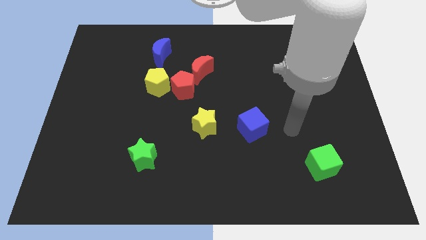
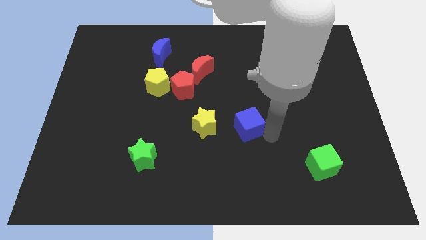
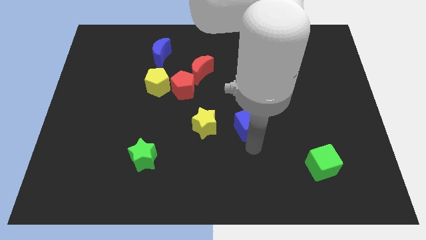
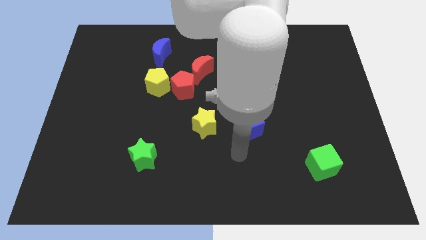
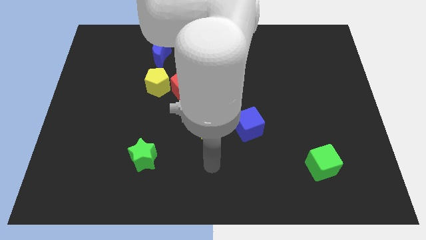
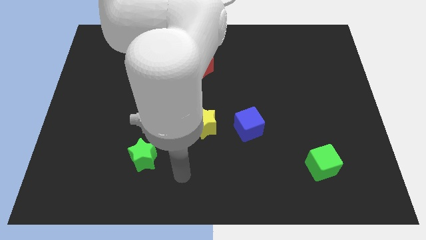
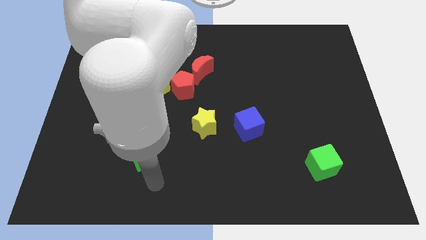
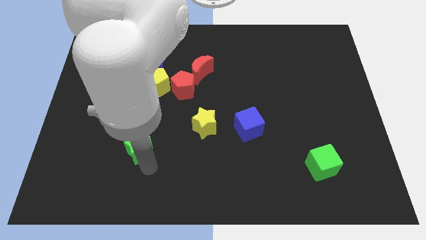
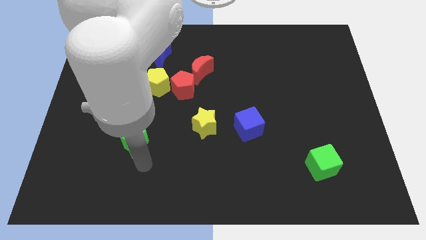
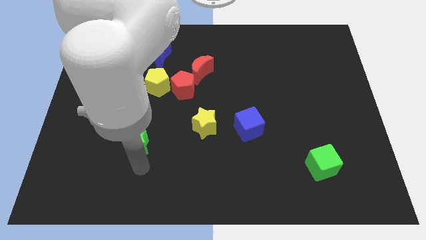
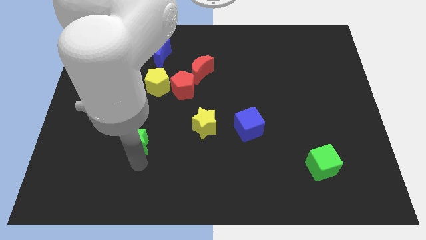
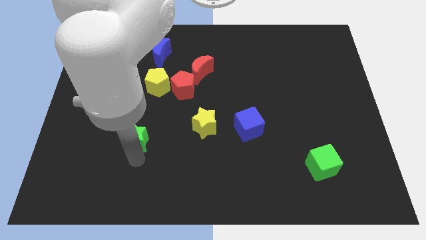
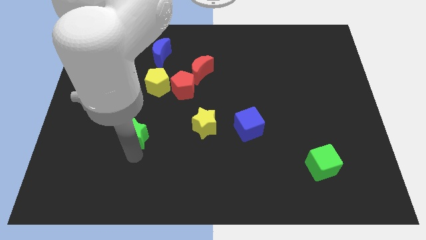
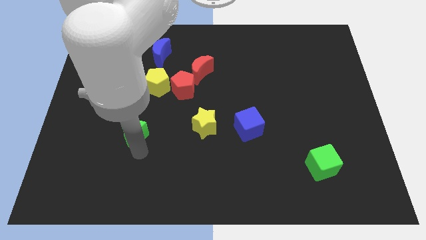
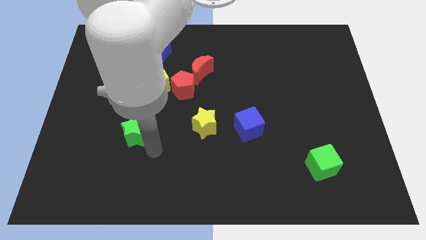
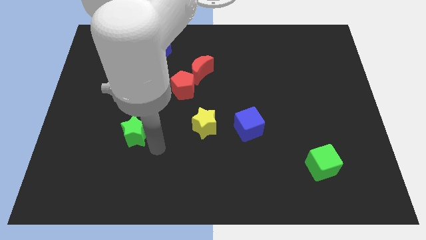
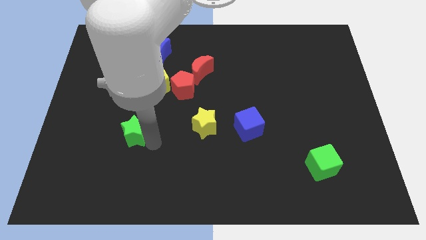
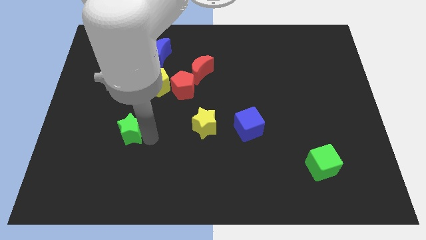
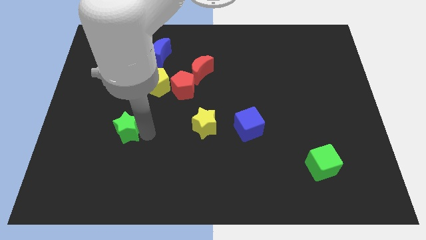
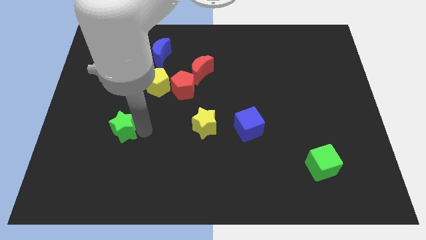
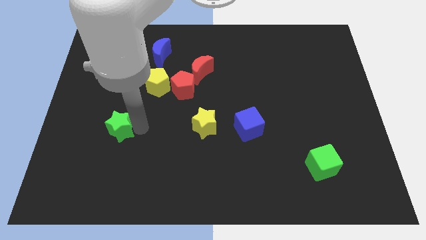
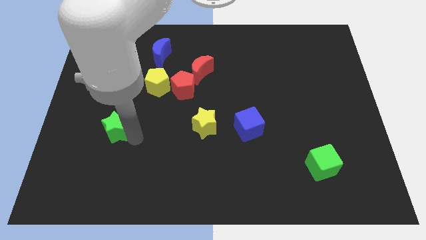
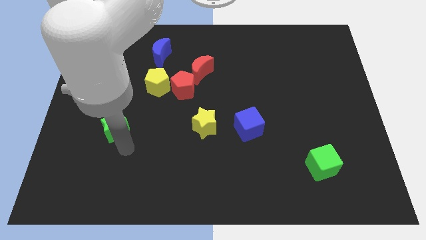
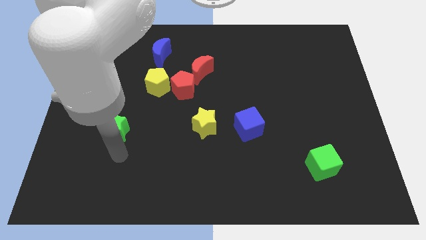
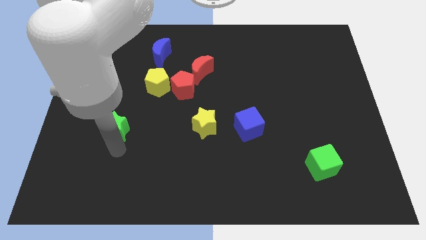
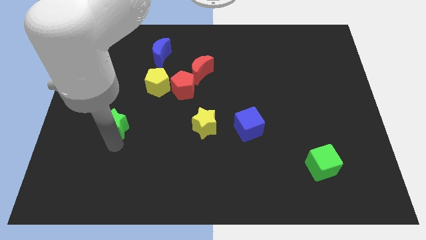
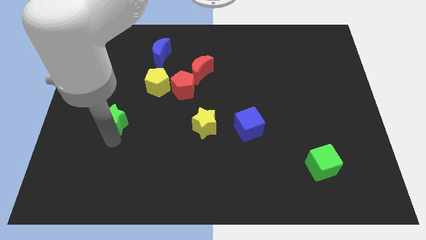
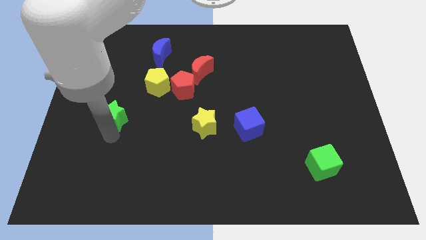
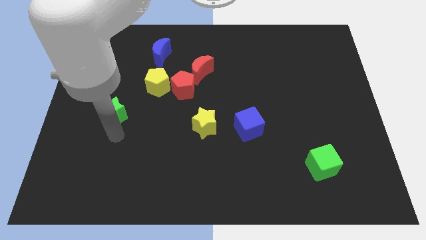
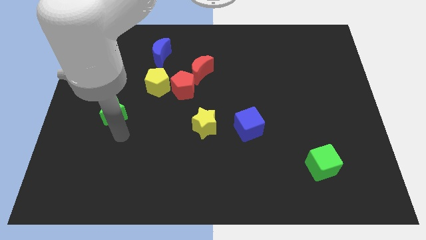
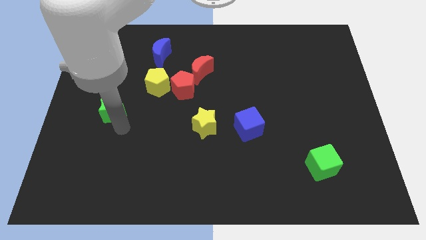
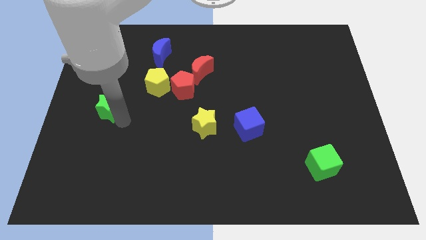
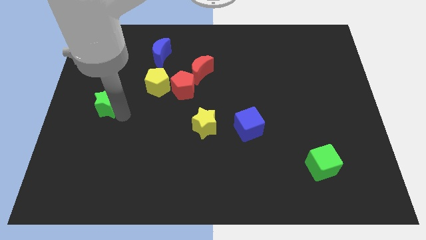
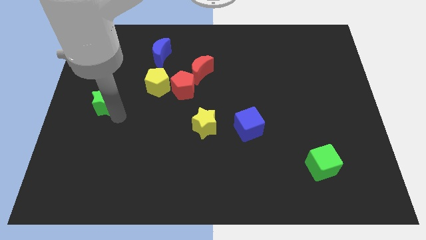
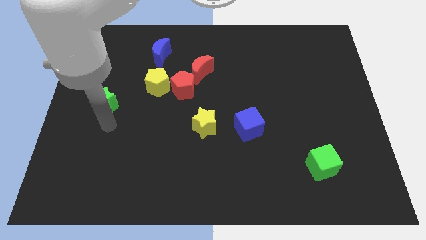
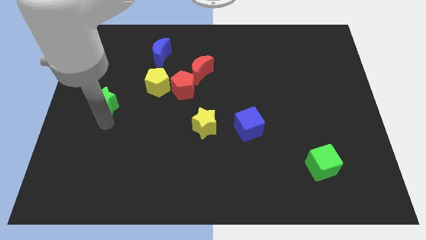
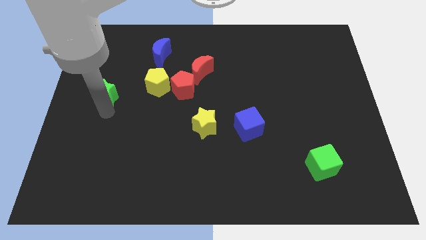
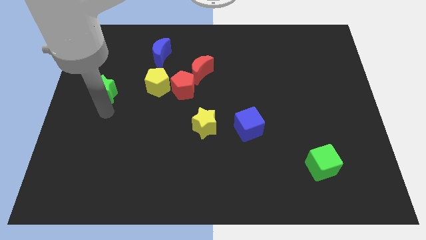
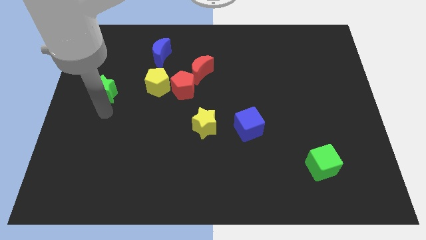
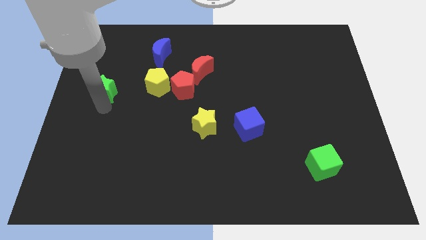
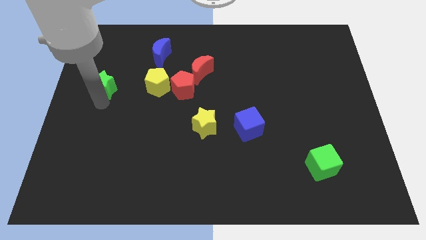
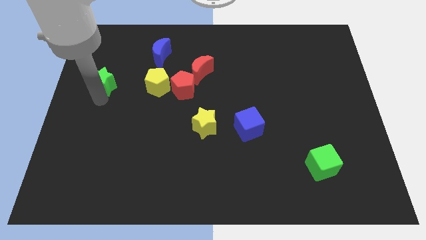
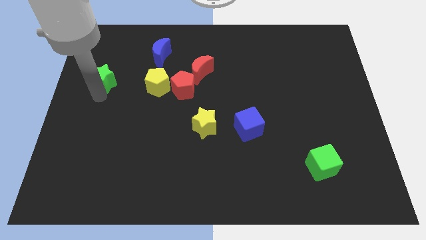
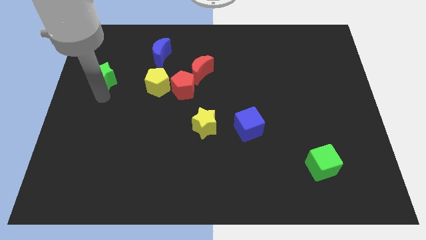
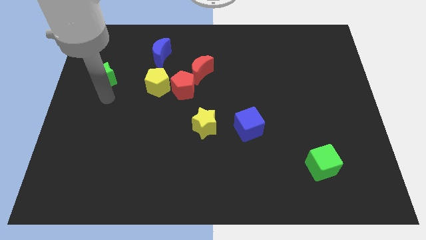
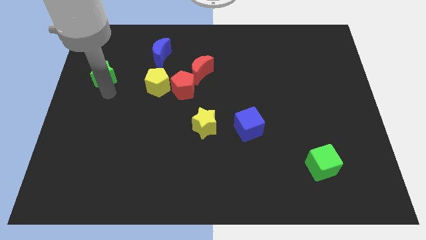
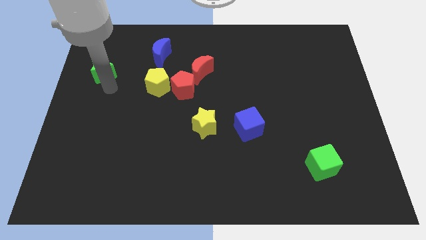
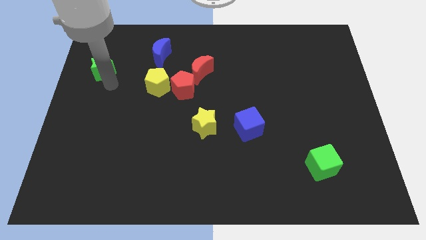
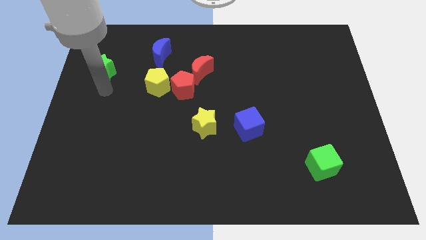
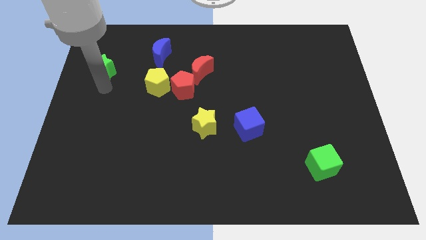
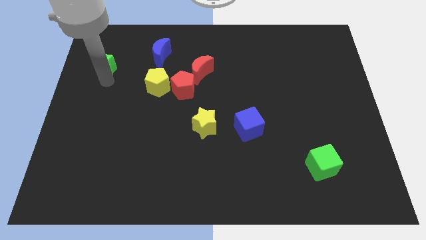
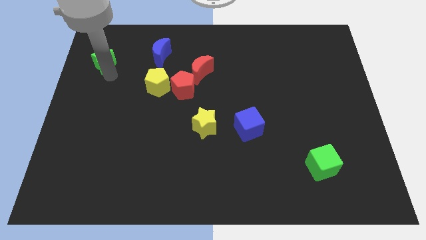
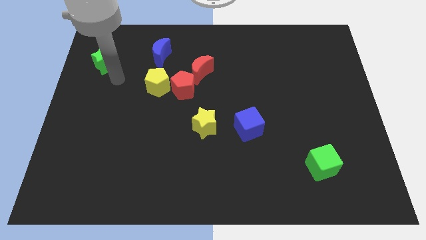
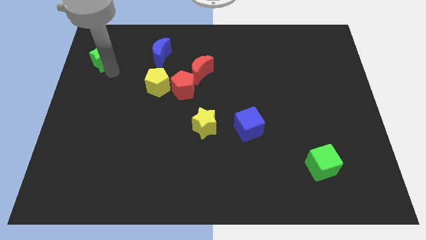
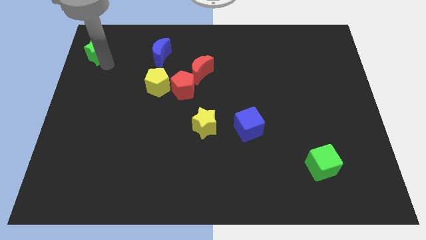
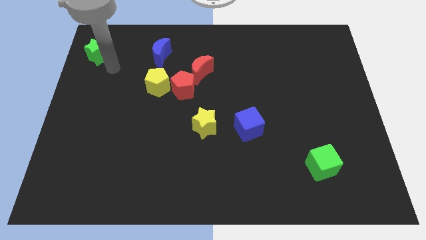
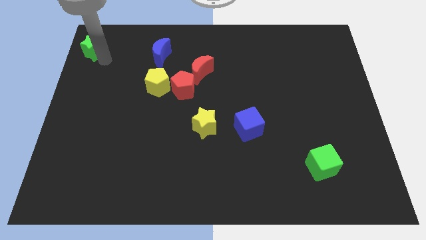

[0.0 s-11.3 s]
push the green star to the upper left corner

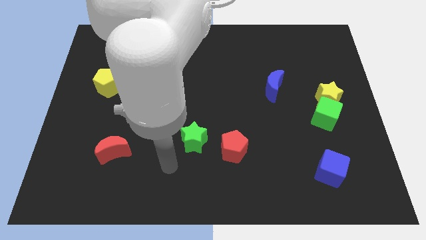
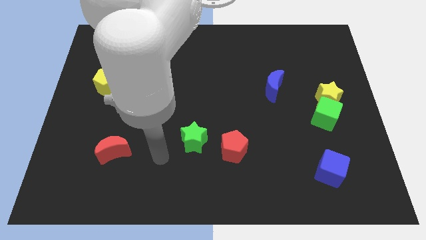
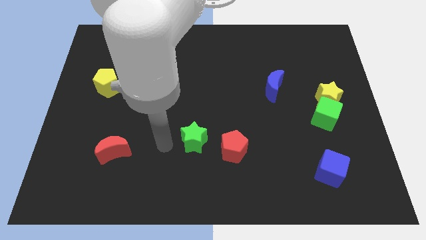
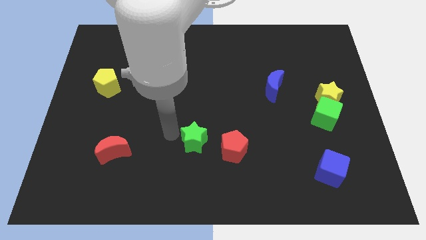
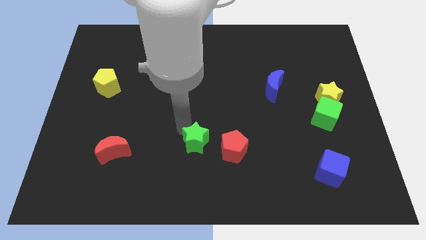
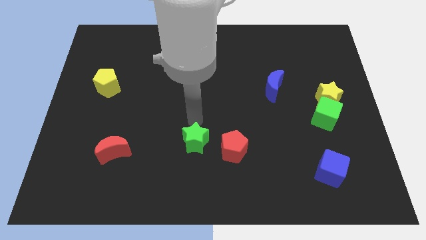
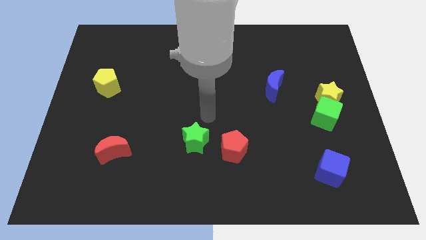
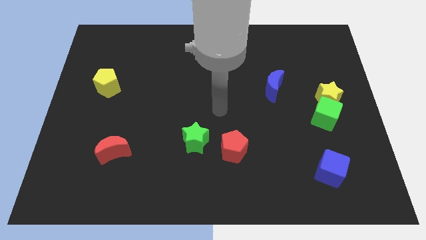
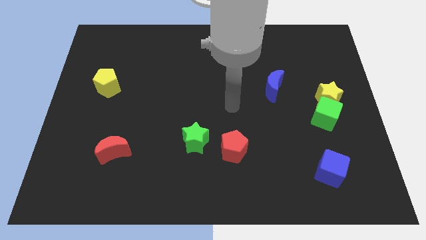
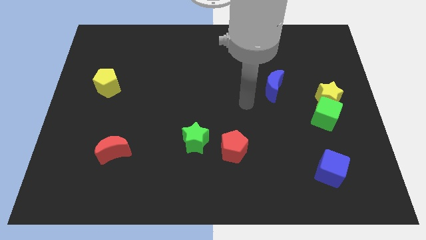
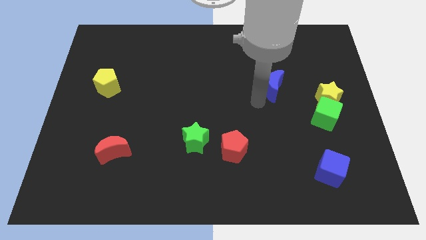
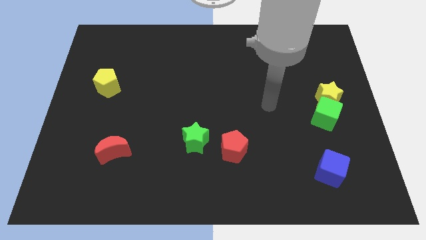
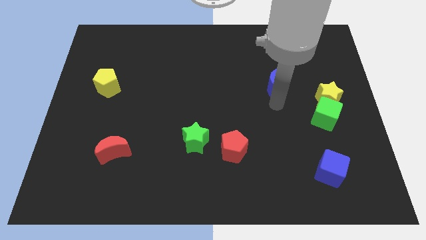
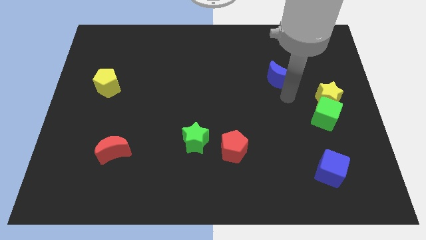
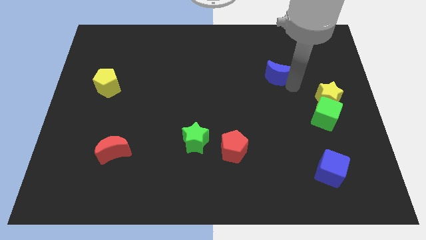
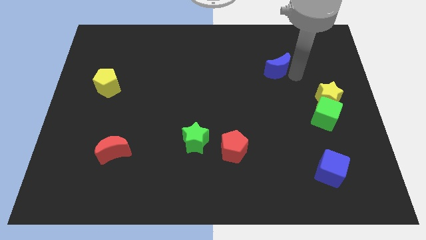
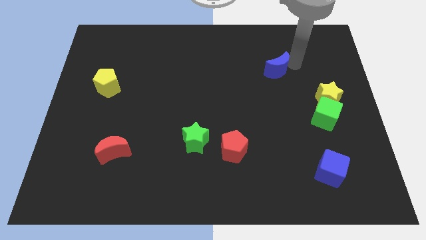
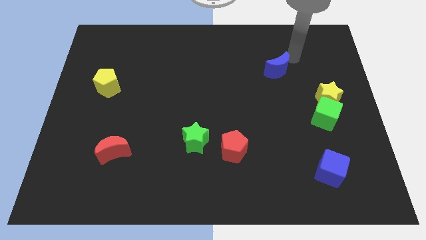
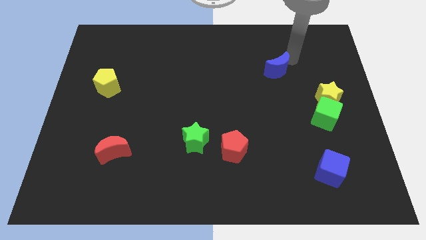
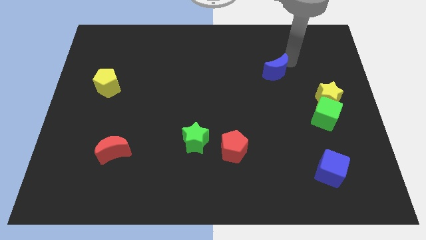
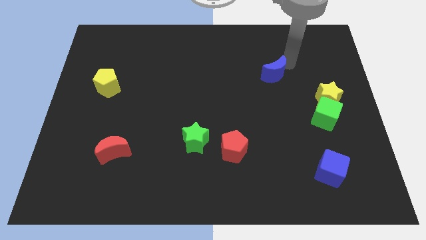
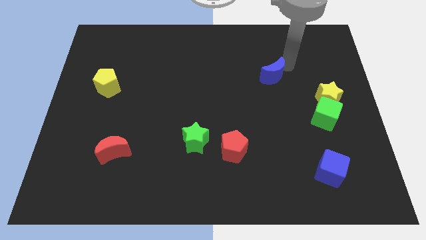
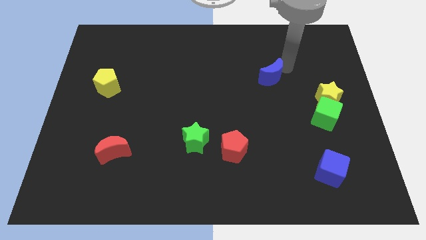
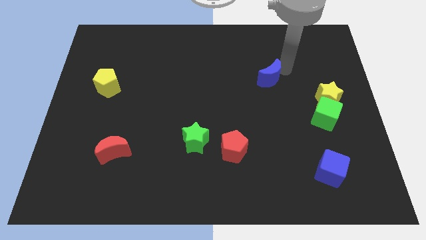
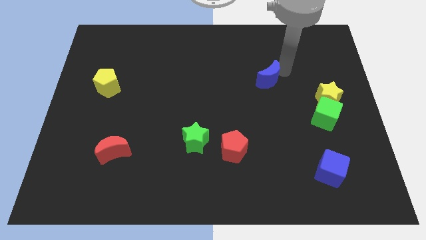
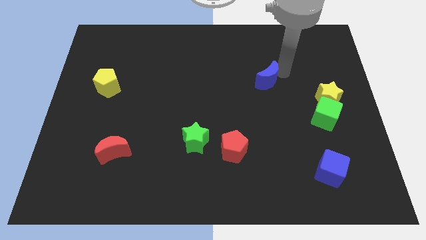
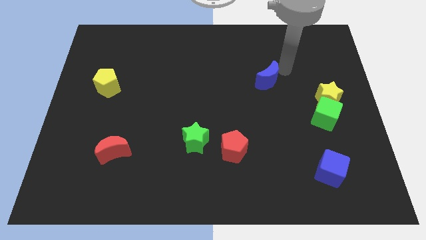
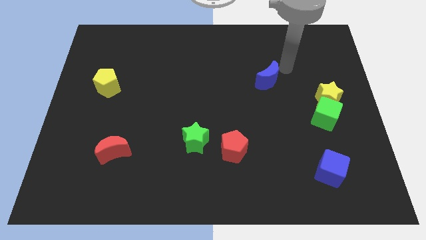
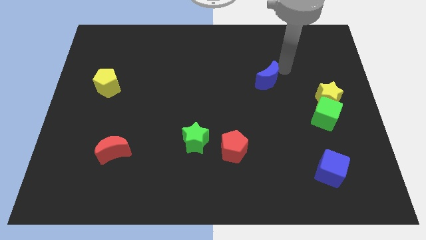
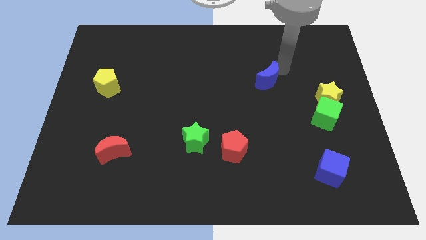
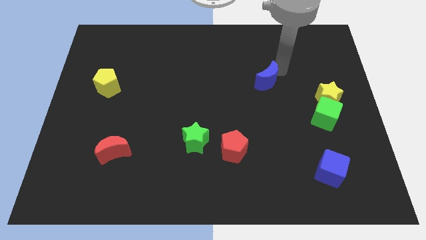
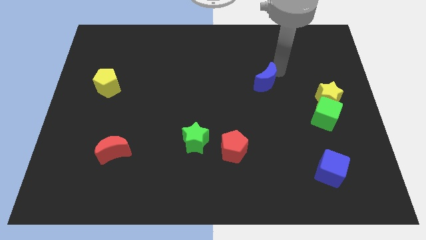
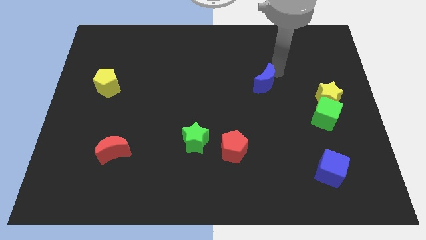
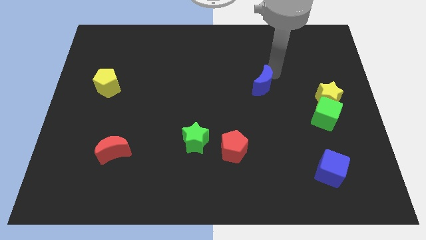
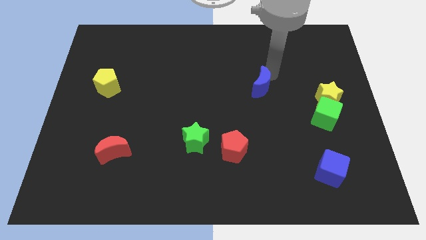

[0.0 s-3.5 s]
push the blue moon to the middle of the board
